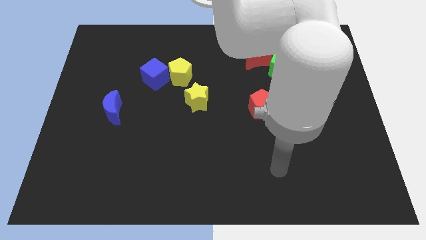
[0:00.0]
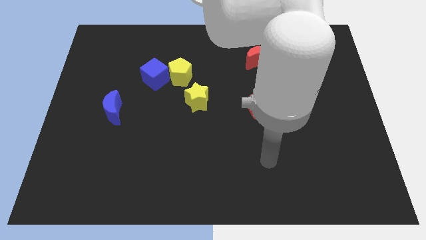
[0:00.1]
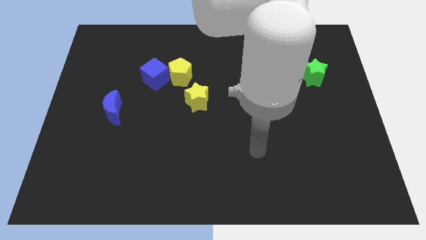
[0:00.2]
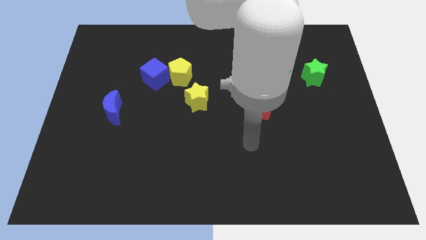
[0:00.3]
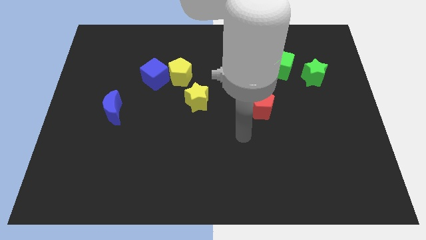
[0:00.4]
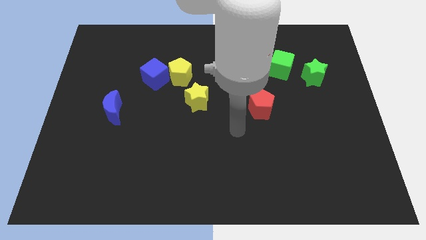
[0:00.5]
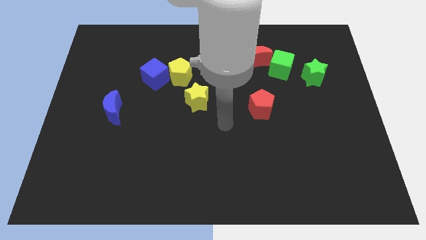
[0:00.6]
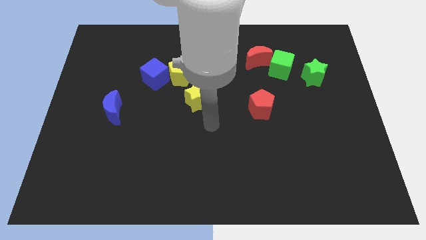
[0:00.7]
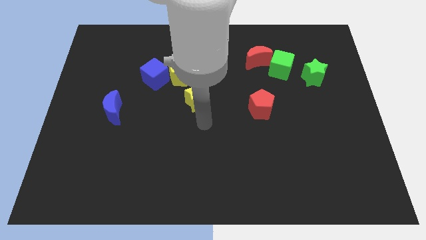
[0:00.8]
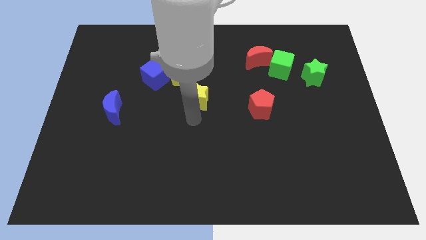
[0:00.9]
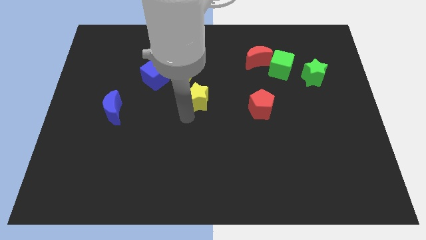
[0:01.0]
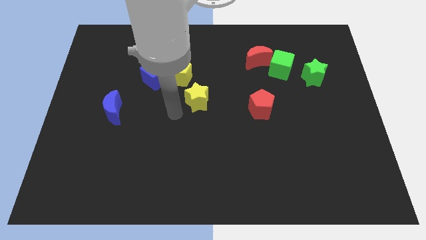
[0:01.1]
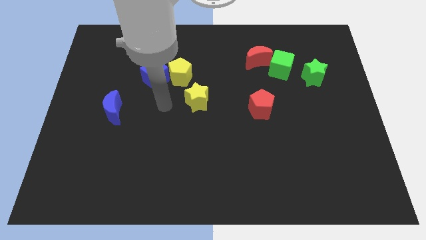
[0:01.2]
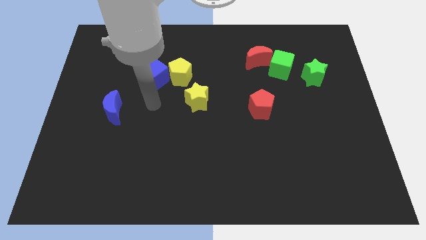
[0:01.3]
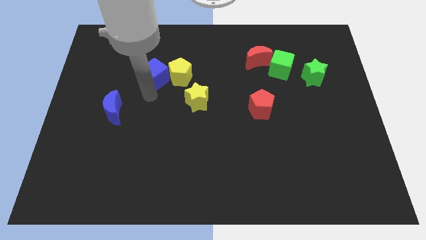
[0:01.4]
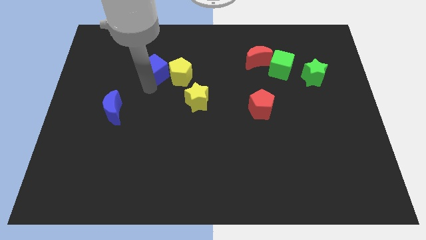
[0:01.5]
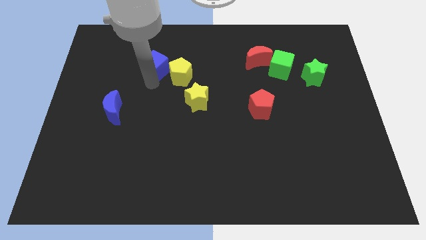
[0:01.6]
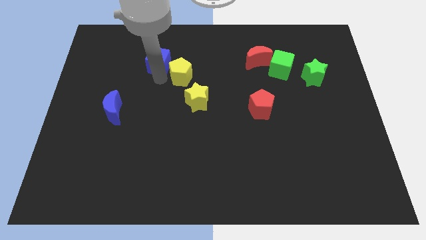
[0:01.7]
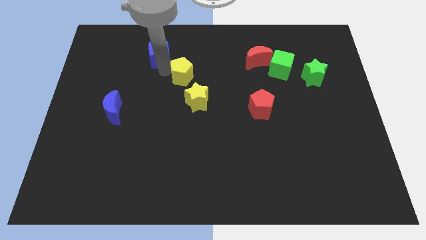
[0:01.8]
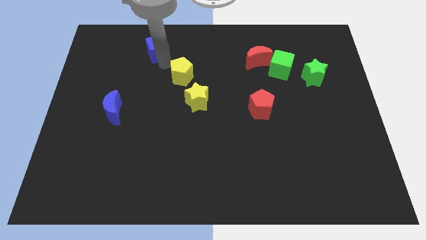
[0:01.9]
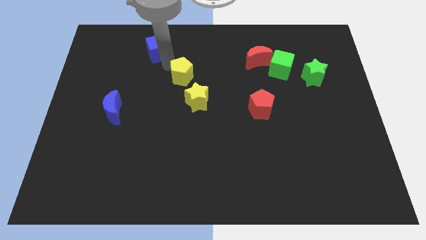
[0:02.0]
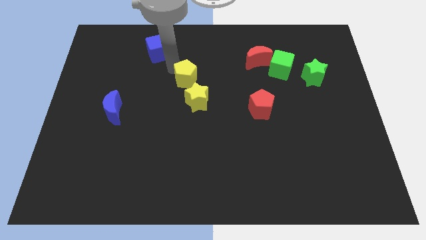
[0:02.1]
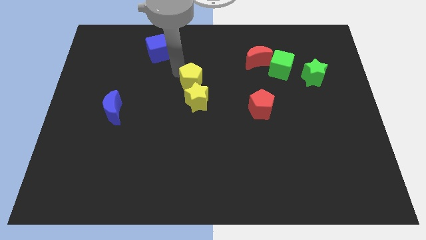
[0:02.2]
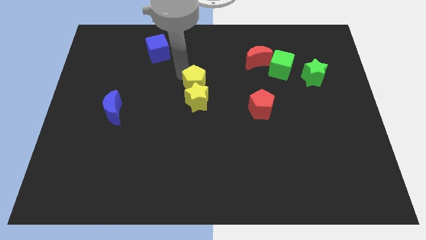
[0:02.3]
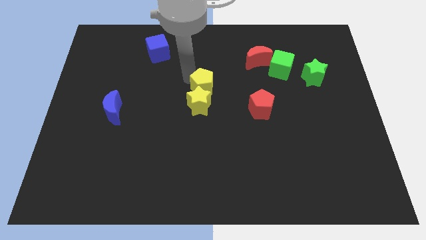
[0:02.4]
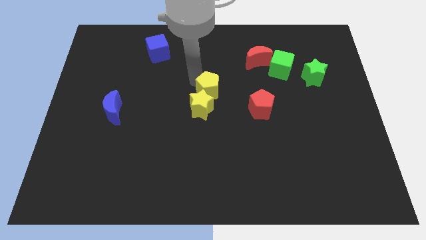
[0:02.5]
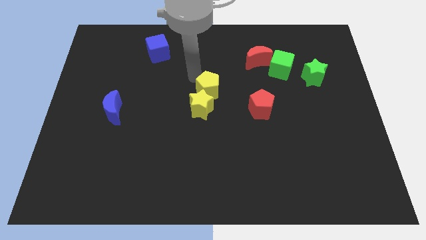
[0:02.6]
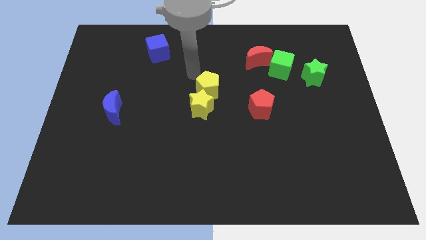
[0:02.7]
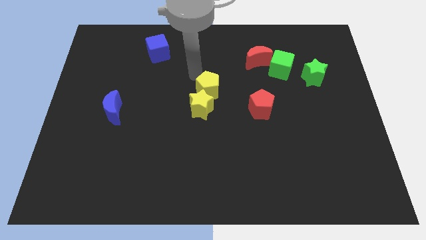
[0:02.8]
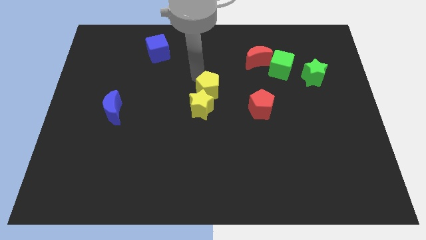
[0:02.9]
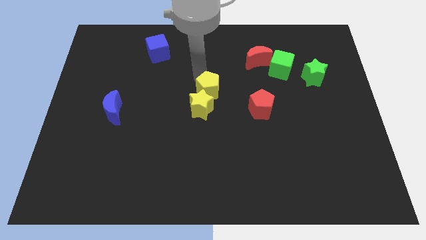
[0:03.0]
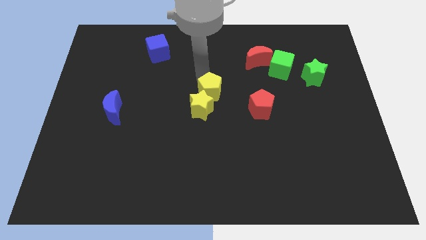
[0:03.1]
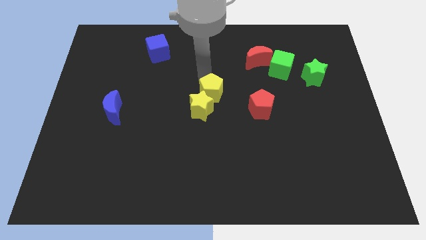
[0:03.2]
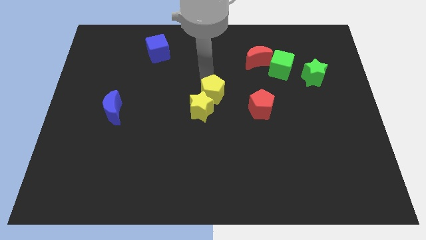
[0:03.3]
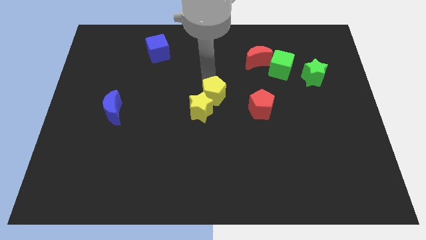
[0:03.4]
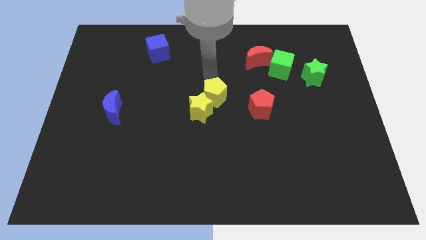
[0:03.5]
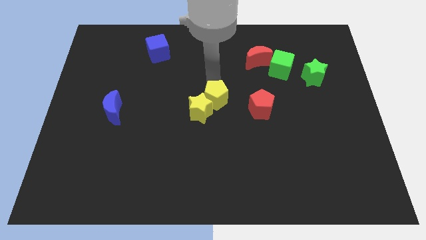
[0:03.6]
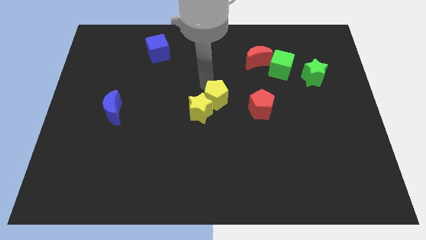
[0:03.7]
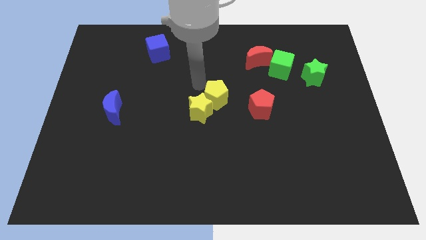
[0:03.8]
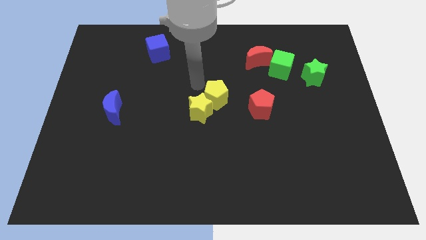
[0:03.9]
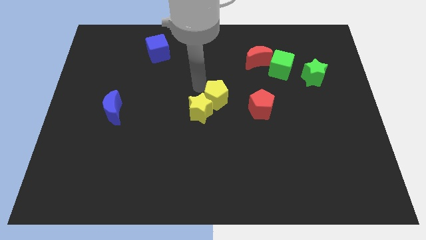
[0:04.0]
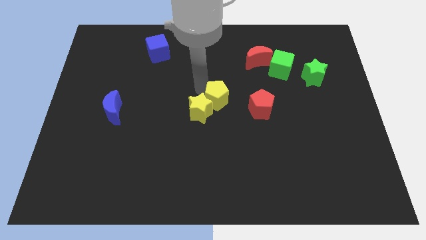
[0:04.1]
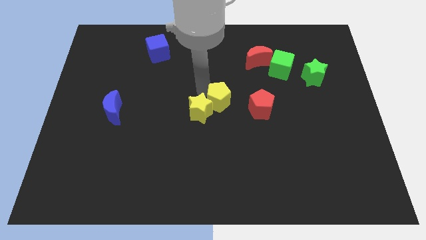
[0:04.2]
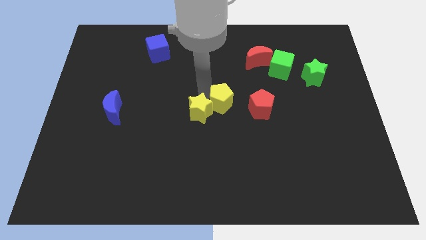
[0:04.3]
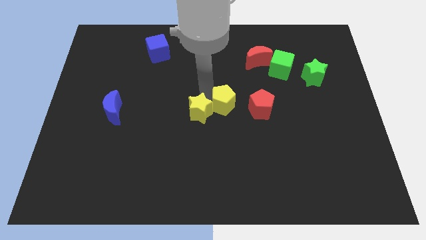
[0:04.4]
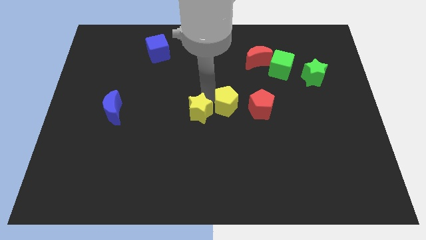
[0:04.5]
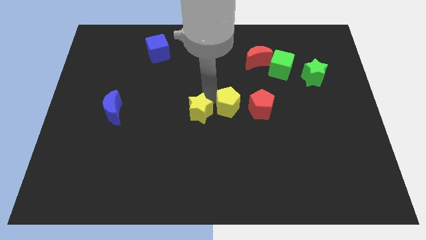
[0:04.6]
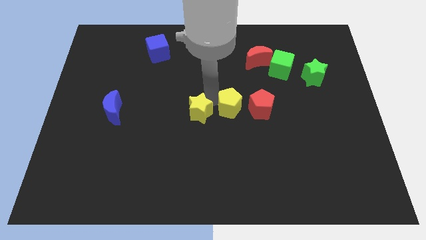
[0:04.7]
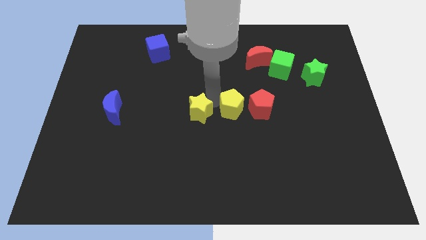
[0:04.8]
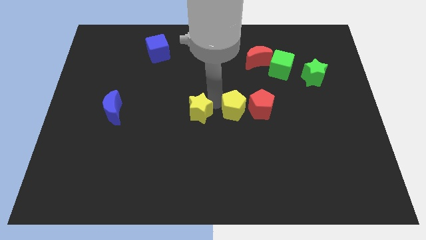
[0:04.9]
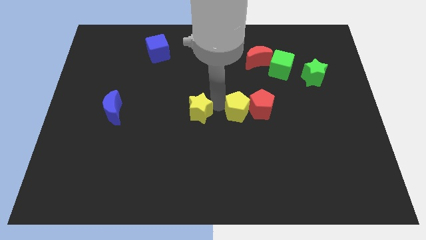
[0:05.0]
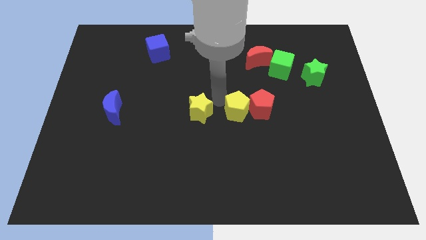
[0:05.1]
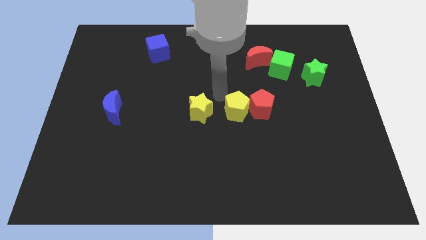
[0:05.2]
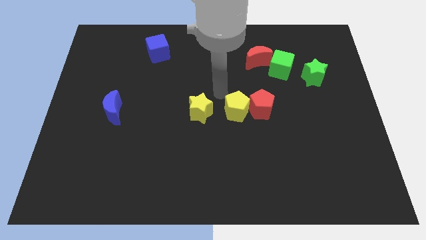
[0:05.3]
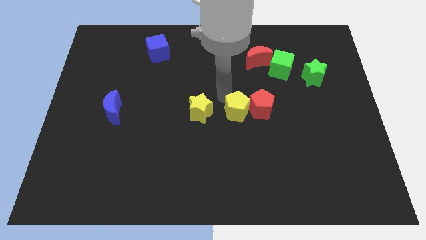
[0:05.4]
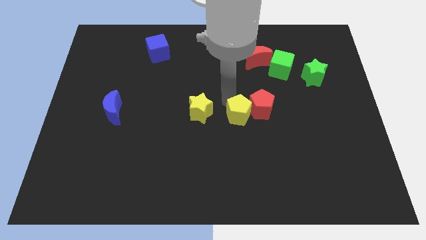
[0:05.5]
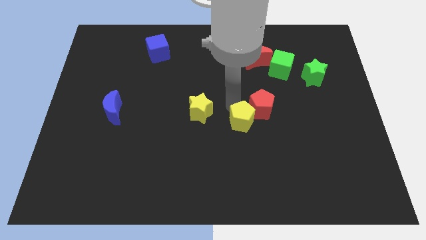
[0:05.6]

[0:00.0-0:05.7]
push the yellow pentagon down and right diagonally

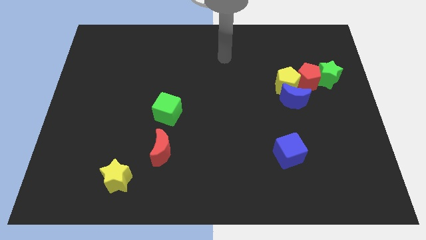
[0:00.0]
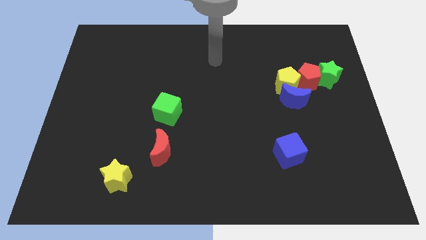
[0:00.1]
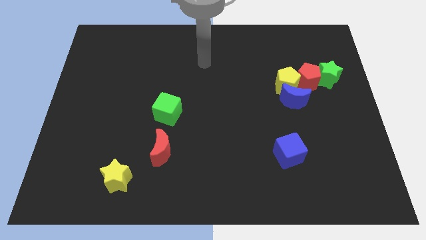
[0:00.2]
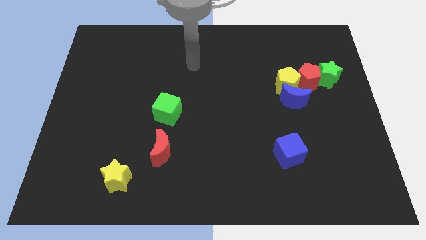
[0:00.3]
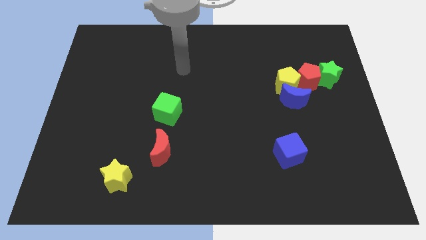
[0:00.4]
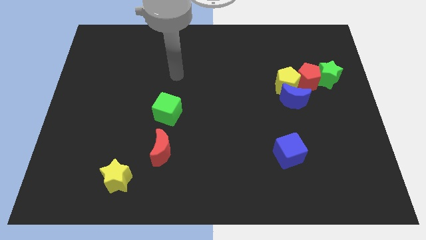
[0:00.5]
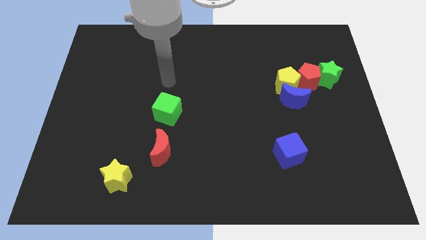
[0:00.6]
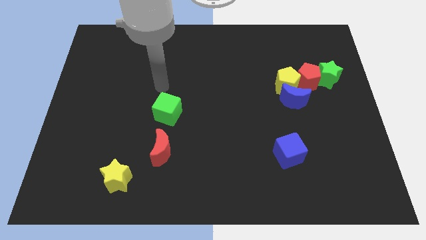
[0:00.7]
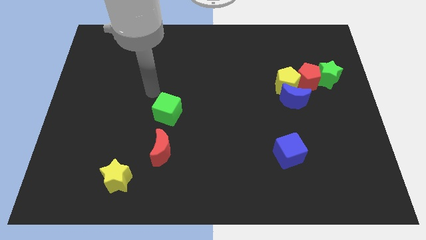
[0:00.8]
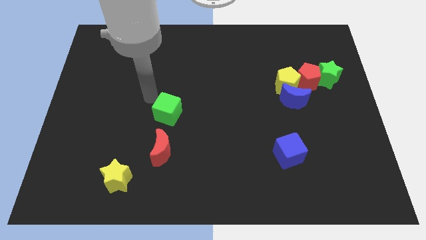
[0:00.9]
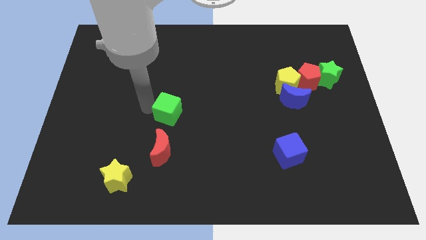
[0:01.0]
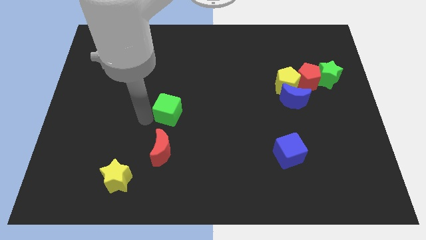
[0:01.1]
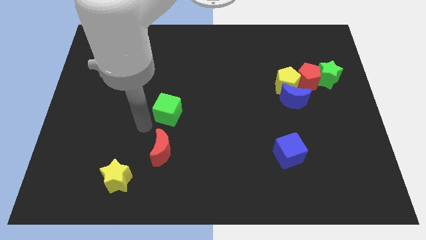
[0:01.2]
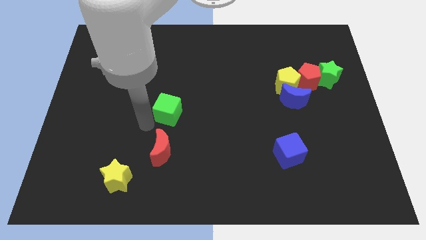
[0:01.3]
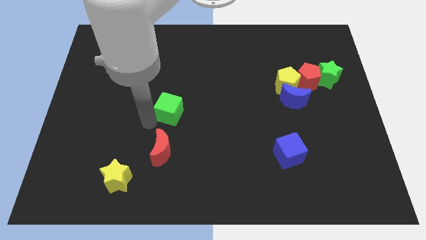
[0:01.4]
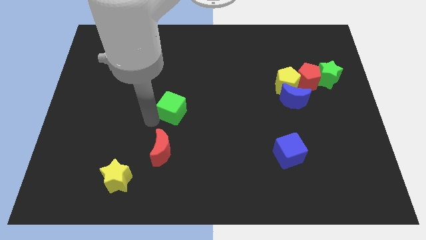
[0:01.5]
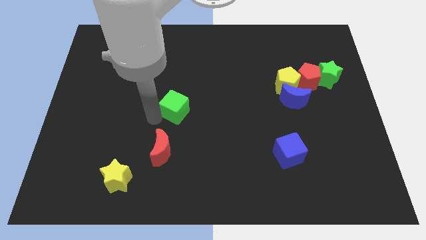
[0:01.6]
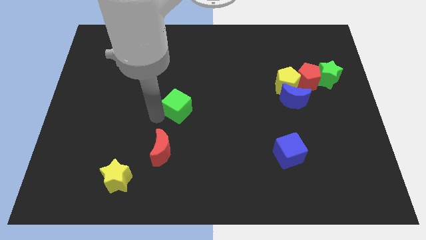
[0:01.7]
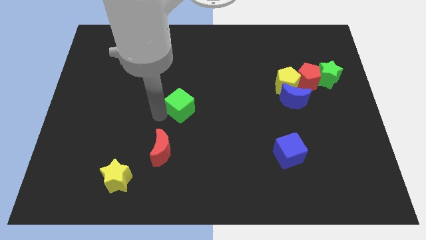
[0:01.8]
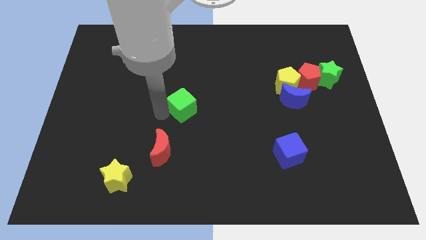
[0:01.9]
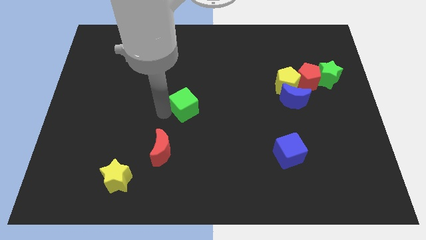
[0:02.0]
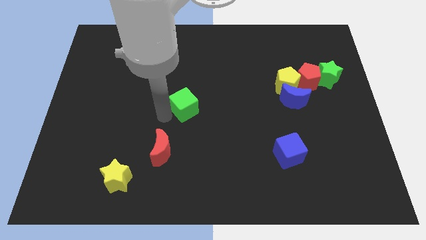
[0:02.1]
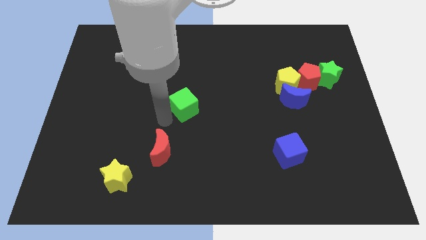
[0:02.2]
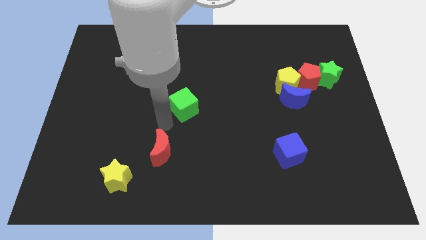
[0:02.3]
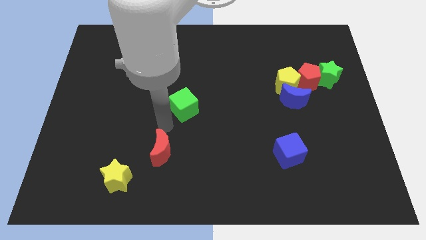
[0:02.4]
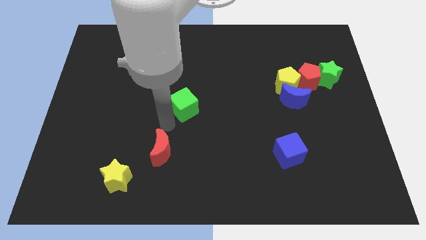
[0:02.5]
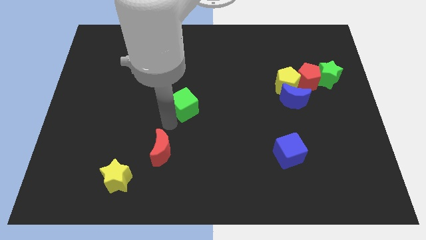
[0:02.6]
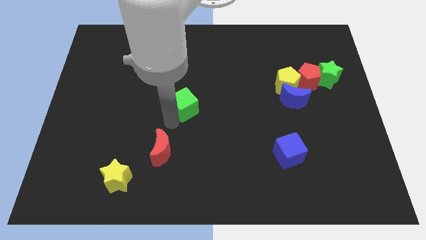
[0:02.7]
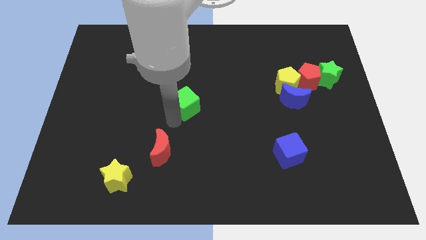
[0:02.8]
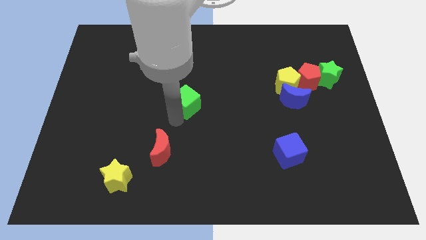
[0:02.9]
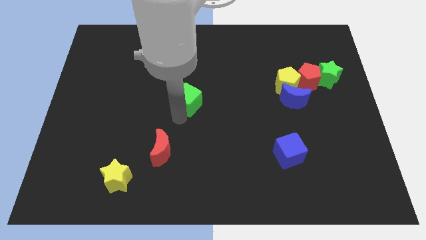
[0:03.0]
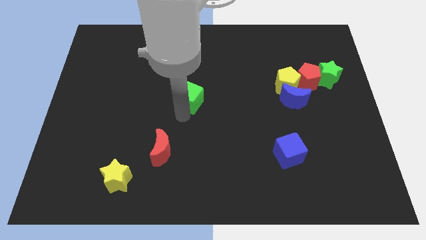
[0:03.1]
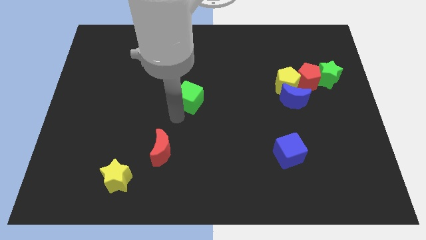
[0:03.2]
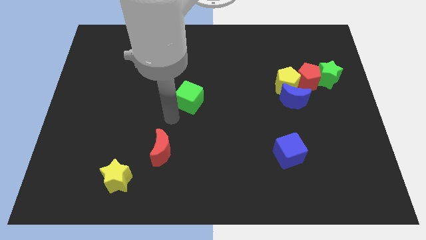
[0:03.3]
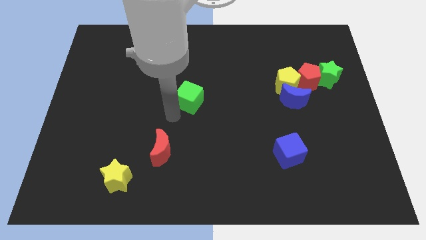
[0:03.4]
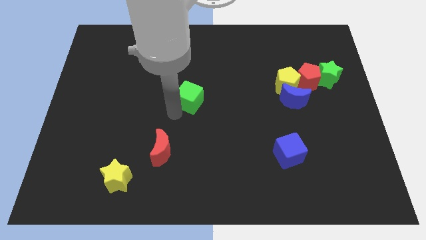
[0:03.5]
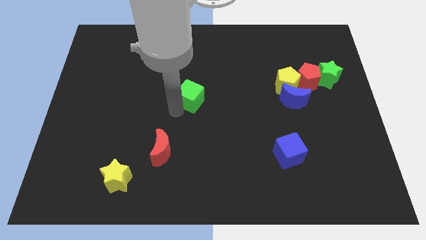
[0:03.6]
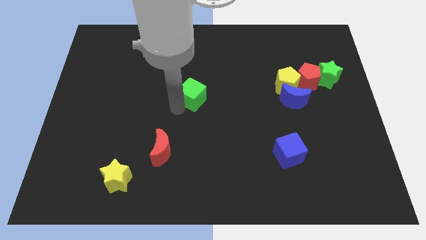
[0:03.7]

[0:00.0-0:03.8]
slightly push the green cube upwards and to the right diagonally
